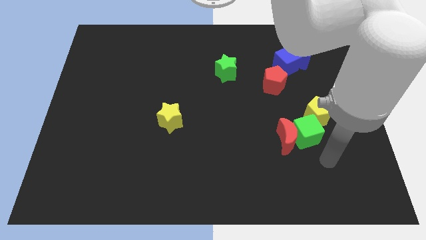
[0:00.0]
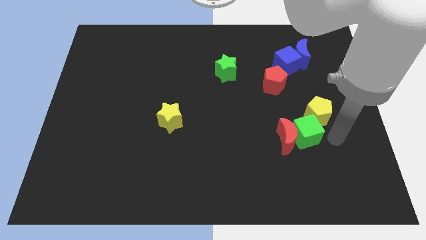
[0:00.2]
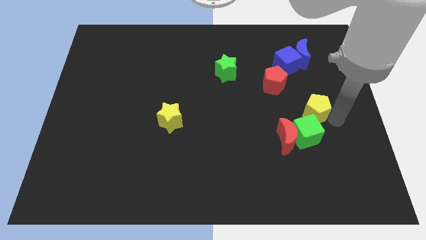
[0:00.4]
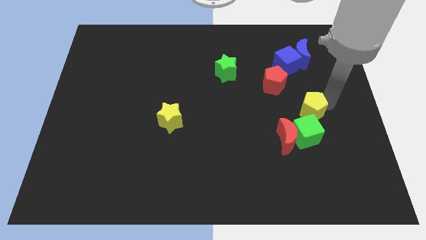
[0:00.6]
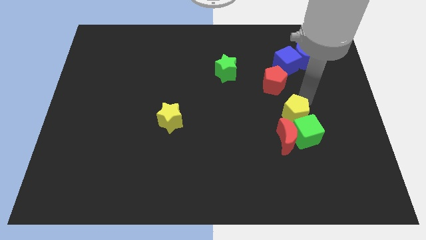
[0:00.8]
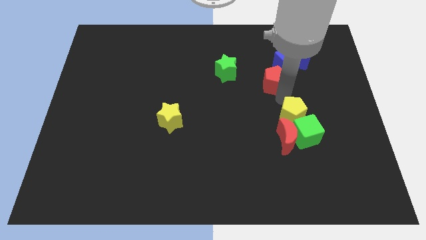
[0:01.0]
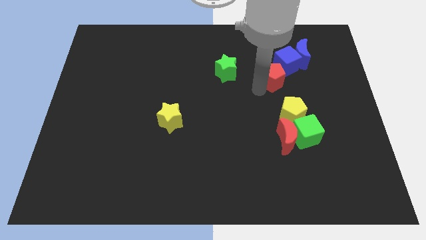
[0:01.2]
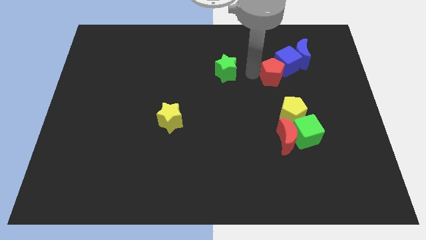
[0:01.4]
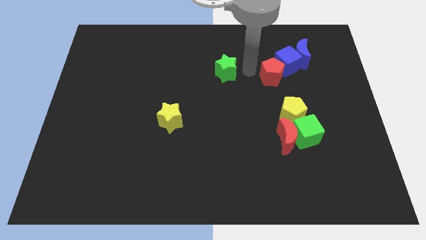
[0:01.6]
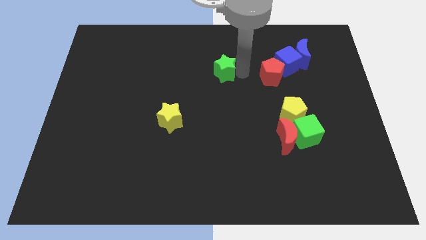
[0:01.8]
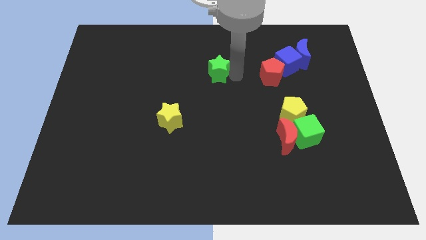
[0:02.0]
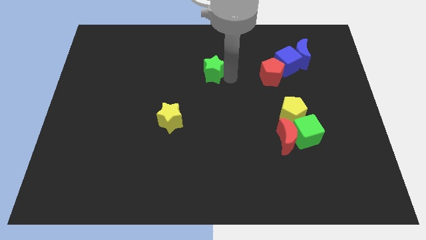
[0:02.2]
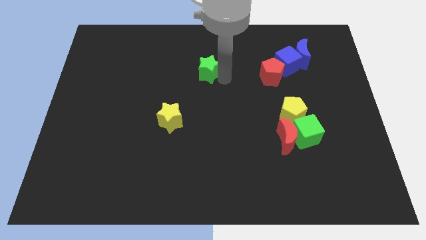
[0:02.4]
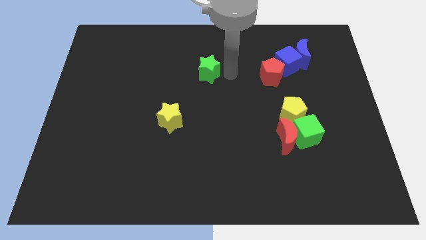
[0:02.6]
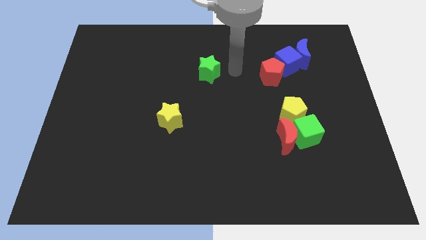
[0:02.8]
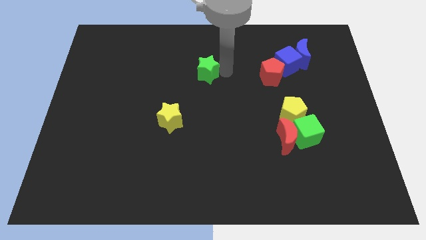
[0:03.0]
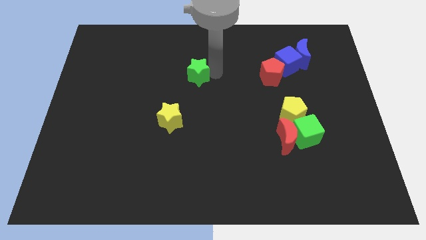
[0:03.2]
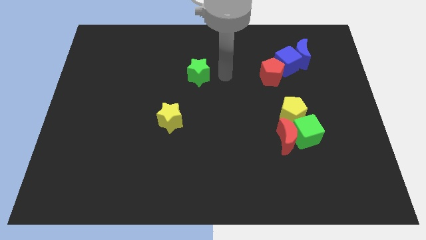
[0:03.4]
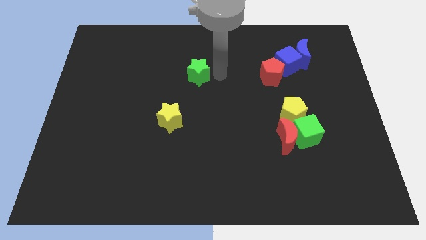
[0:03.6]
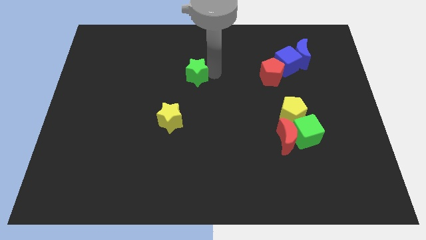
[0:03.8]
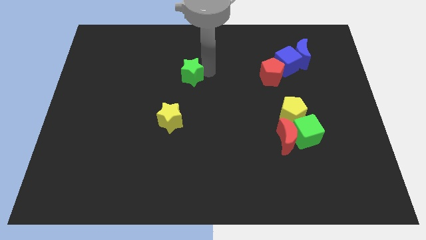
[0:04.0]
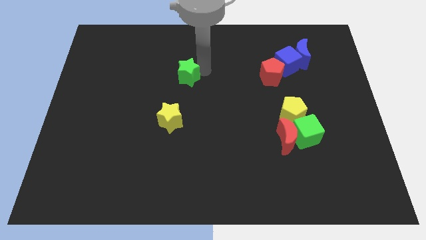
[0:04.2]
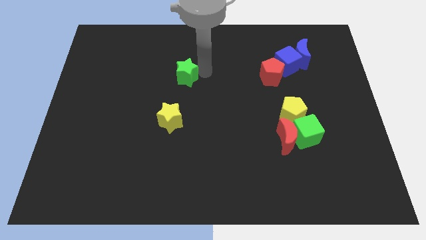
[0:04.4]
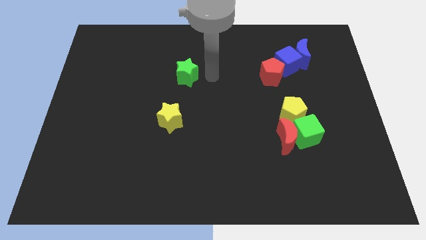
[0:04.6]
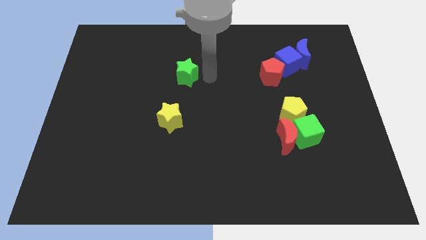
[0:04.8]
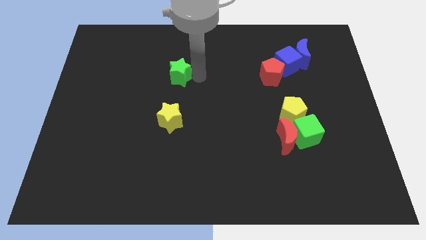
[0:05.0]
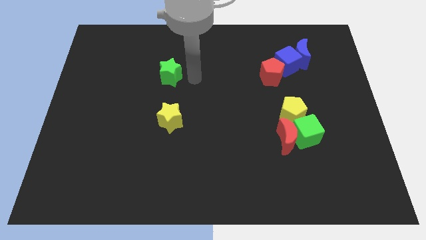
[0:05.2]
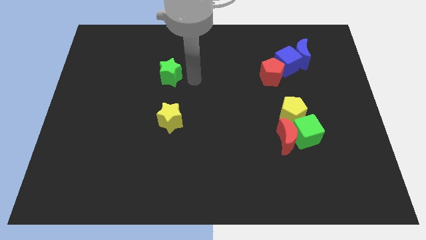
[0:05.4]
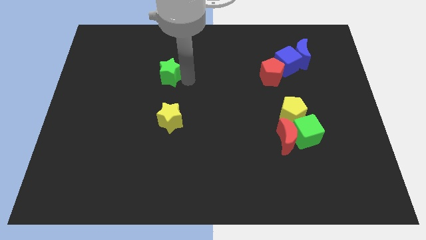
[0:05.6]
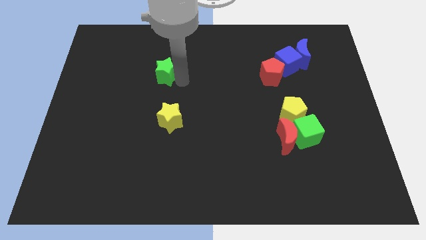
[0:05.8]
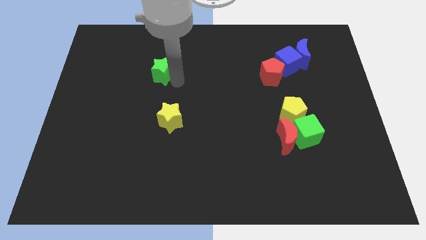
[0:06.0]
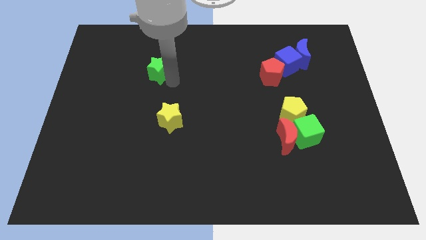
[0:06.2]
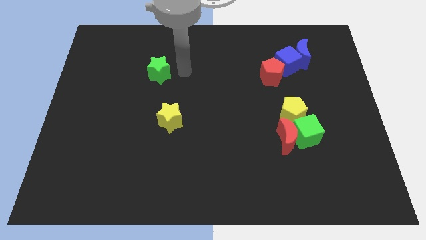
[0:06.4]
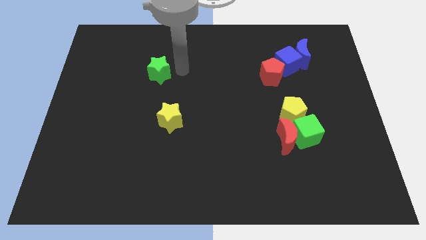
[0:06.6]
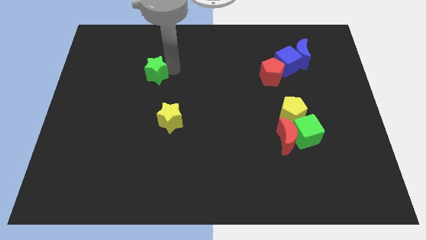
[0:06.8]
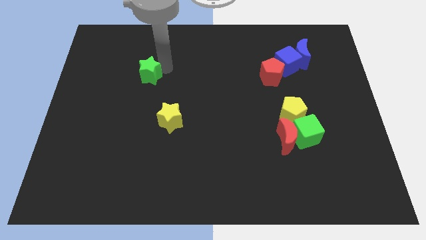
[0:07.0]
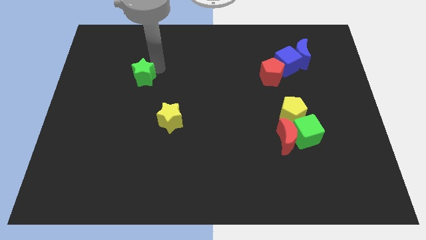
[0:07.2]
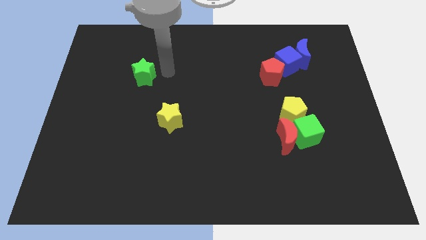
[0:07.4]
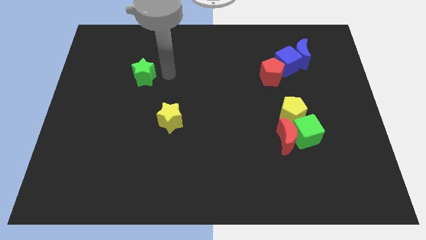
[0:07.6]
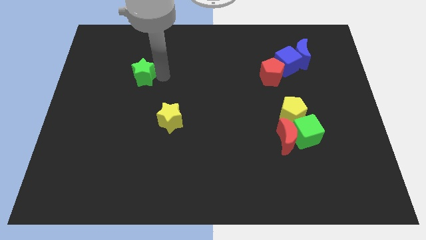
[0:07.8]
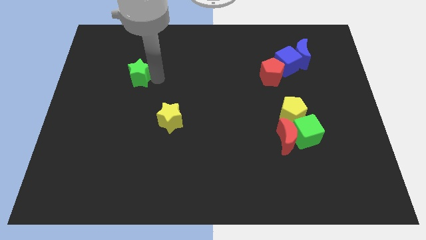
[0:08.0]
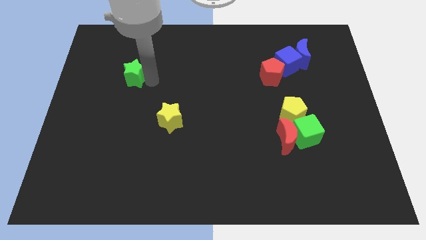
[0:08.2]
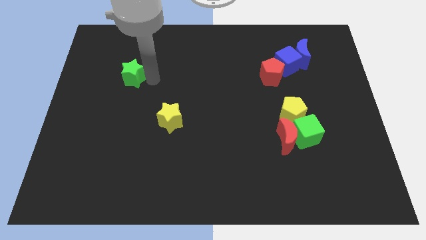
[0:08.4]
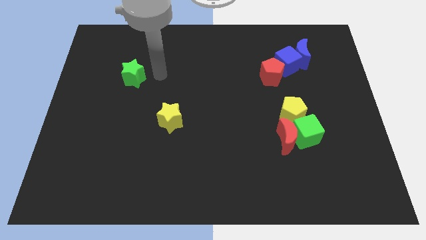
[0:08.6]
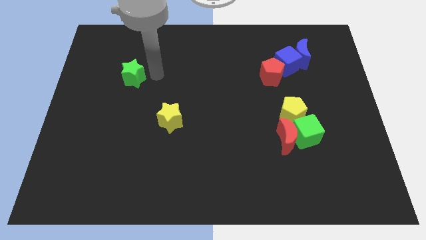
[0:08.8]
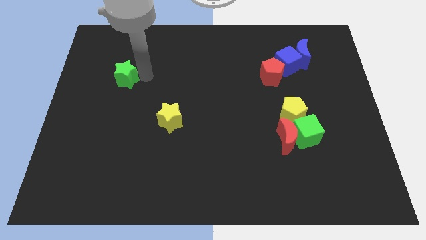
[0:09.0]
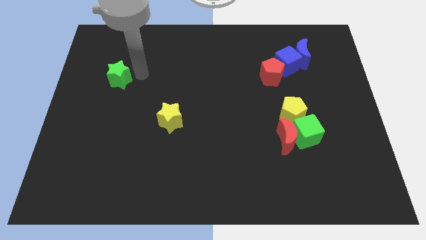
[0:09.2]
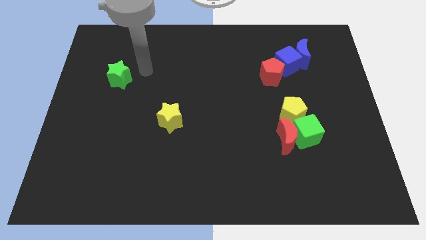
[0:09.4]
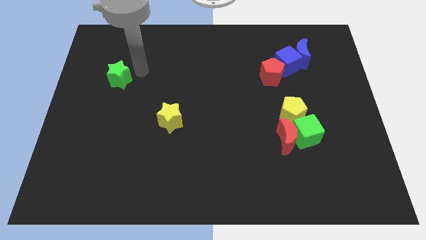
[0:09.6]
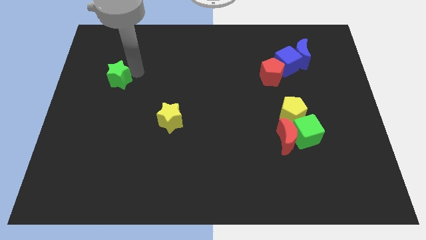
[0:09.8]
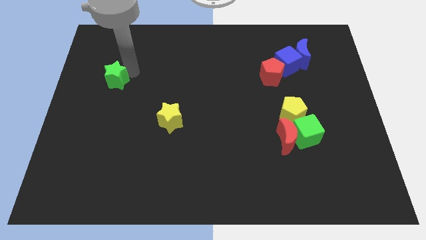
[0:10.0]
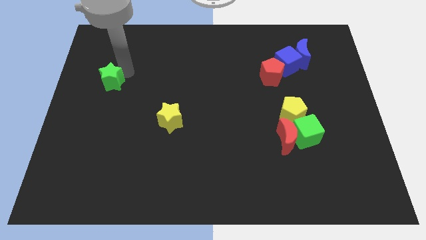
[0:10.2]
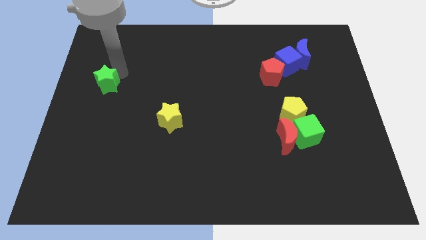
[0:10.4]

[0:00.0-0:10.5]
put the green star to the left side of the board

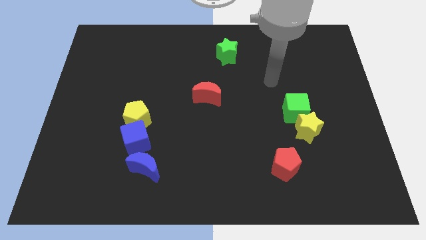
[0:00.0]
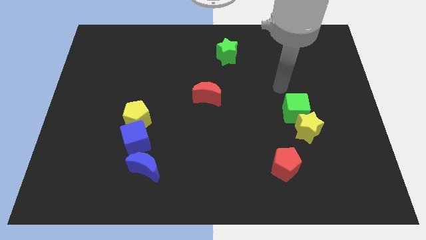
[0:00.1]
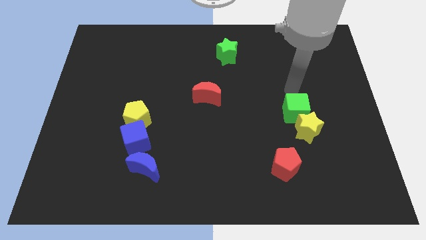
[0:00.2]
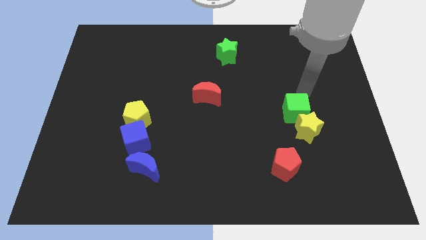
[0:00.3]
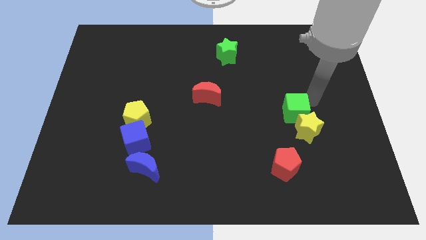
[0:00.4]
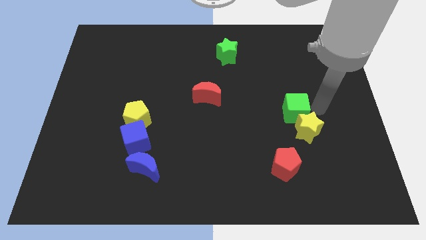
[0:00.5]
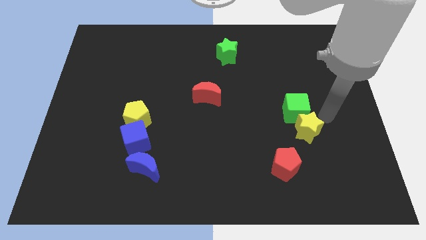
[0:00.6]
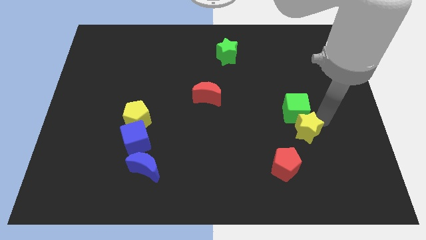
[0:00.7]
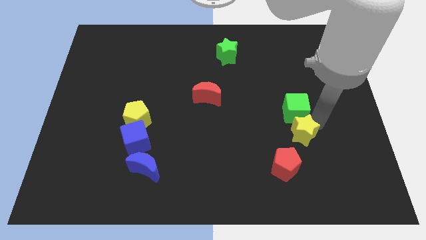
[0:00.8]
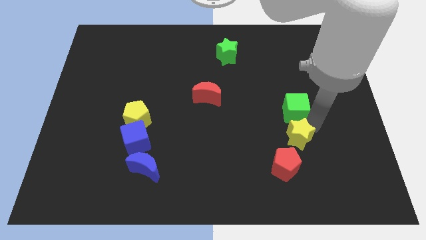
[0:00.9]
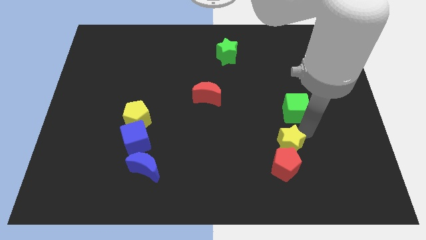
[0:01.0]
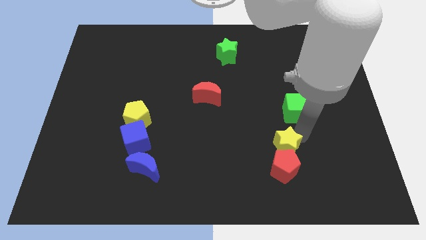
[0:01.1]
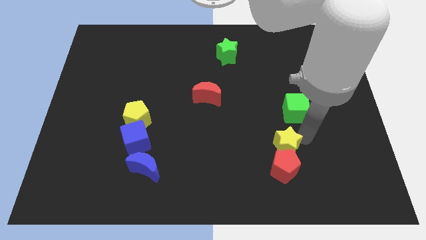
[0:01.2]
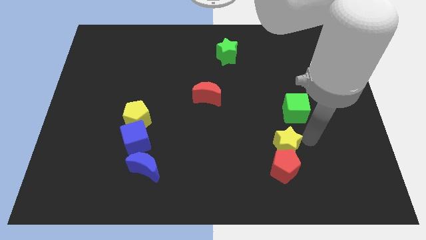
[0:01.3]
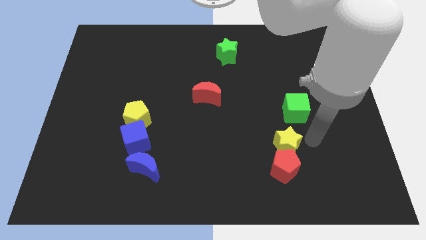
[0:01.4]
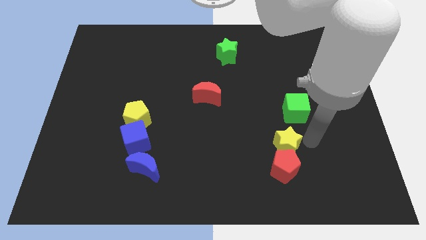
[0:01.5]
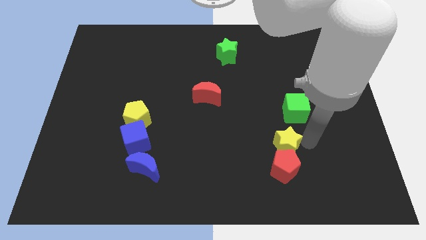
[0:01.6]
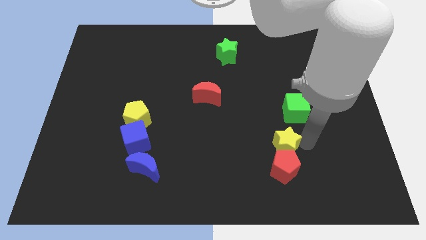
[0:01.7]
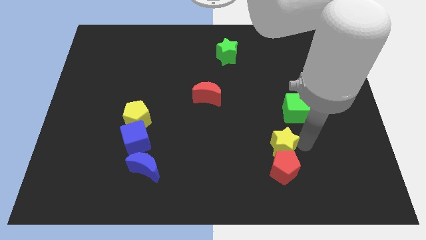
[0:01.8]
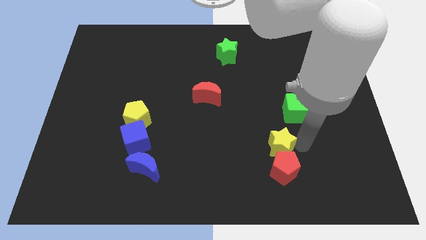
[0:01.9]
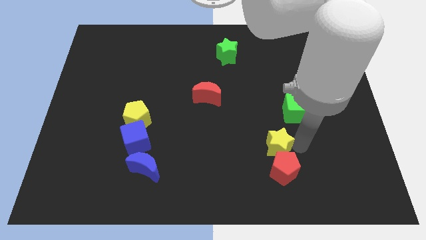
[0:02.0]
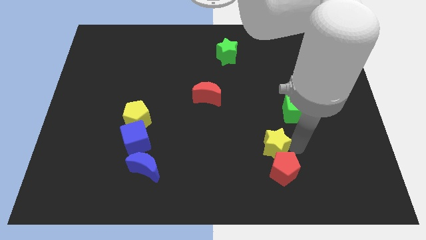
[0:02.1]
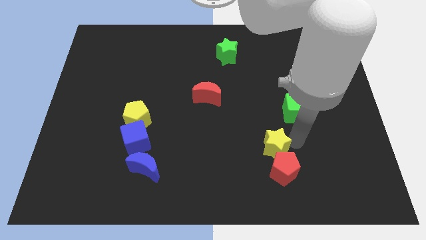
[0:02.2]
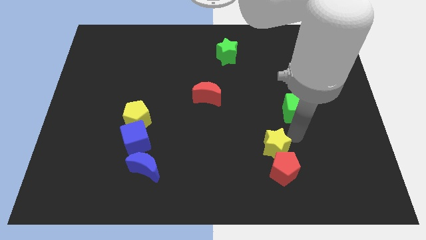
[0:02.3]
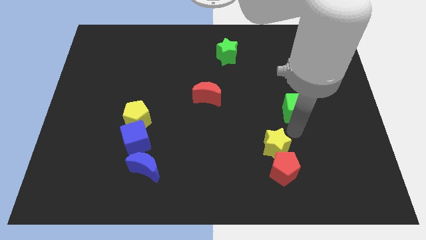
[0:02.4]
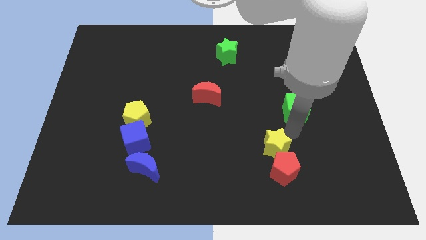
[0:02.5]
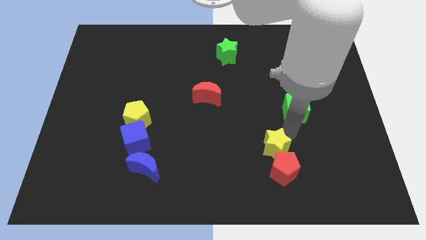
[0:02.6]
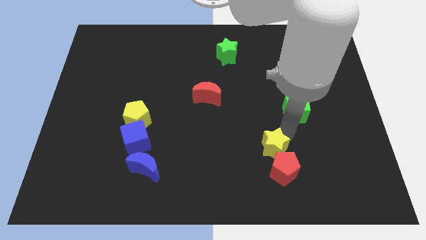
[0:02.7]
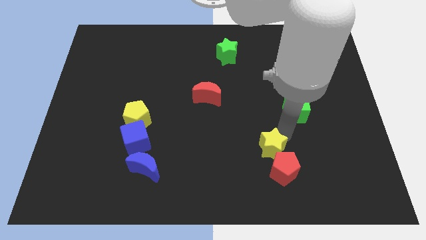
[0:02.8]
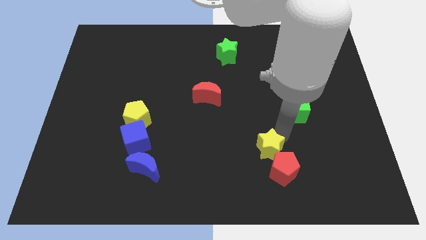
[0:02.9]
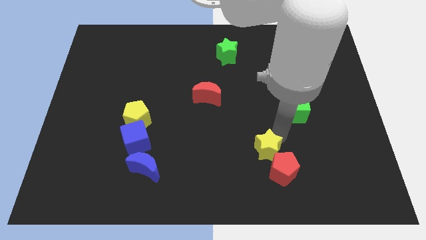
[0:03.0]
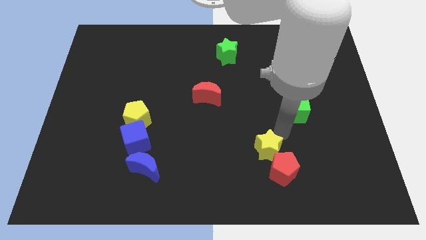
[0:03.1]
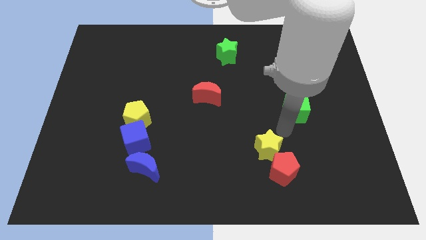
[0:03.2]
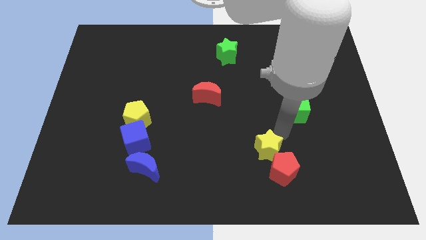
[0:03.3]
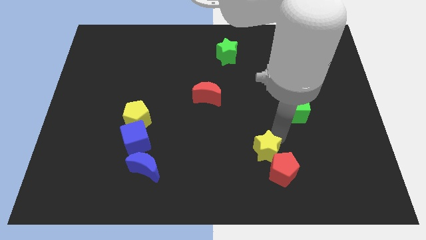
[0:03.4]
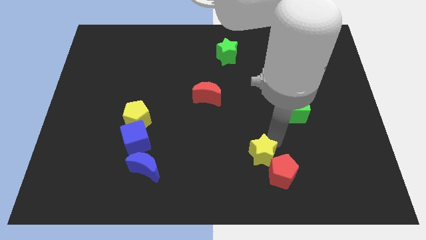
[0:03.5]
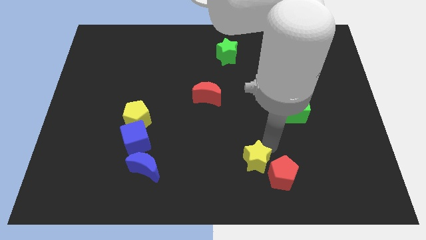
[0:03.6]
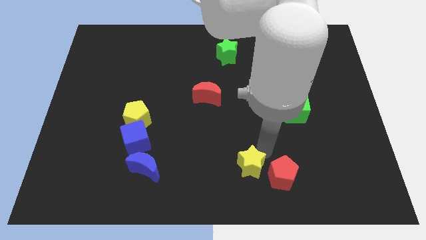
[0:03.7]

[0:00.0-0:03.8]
move the yellow star to the bottom
